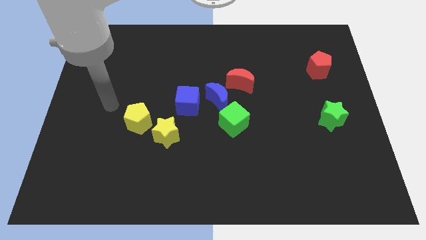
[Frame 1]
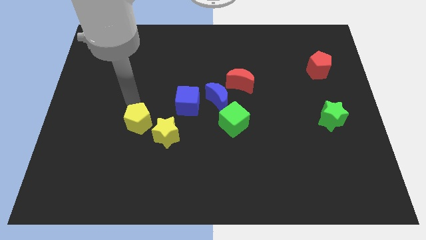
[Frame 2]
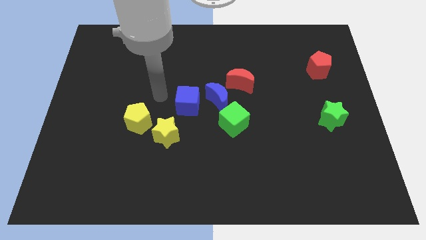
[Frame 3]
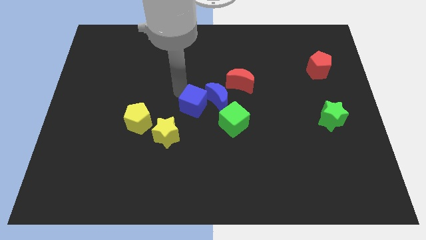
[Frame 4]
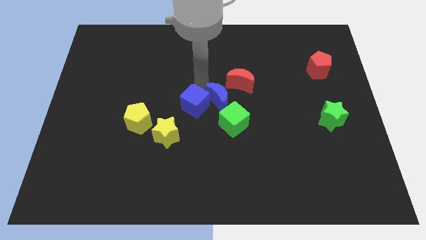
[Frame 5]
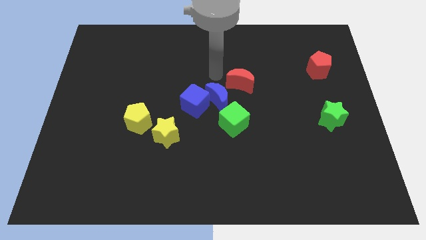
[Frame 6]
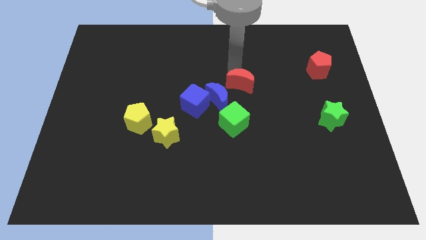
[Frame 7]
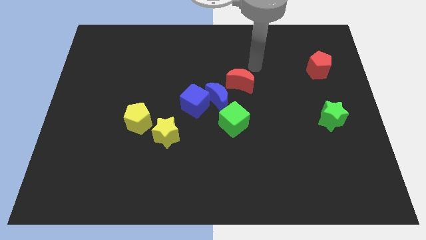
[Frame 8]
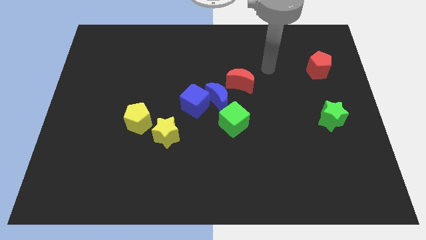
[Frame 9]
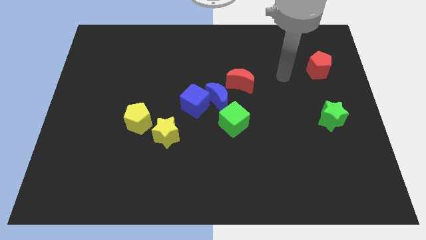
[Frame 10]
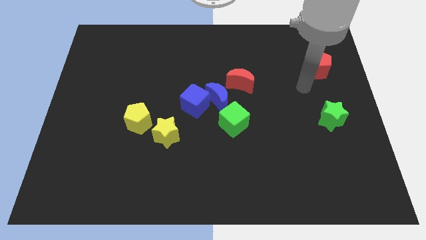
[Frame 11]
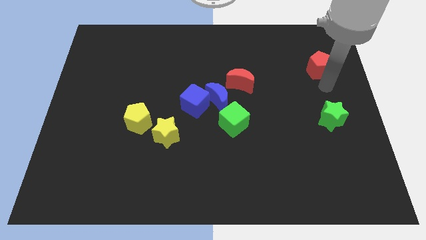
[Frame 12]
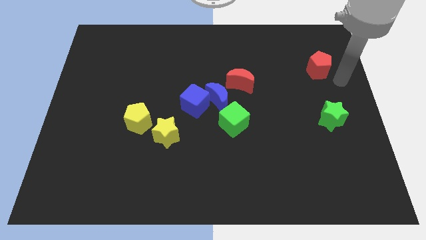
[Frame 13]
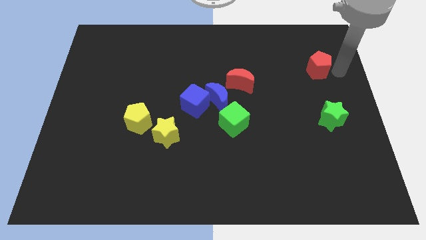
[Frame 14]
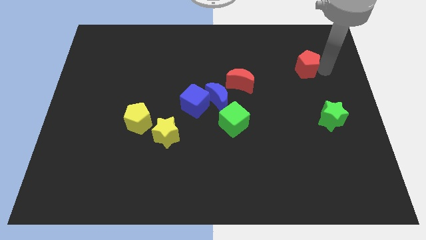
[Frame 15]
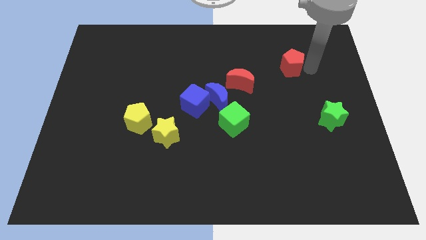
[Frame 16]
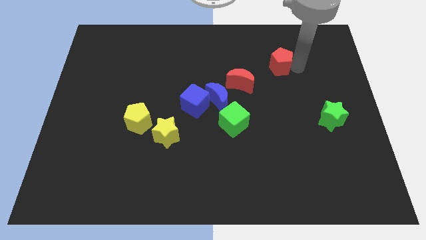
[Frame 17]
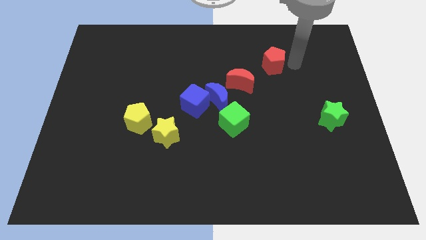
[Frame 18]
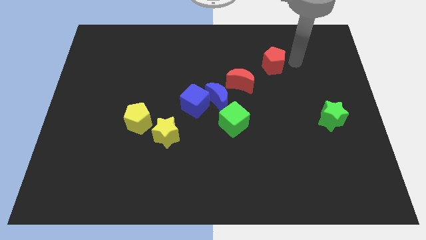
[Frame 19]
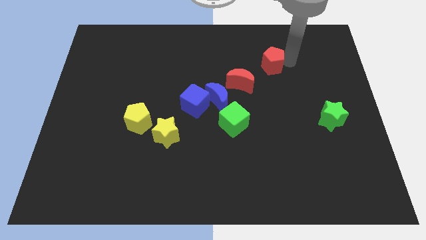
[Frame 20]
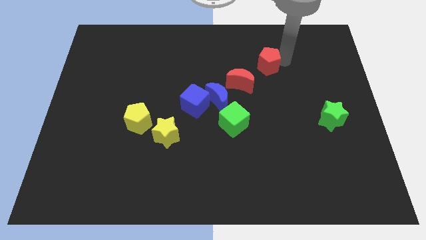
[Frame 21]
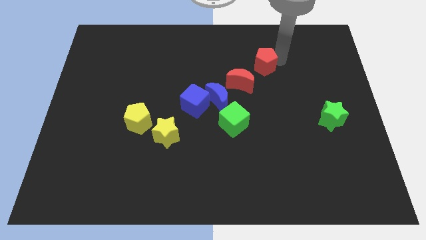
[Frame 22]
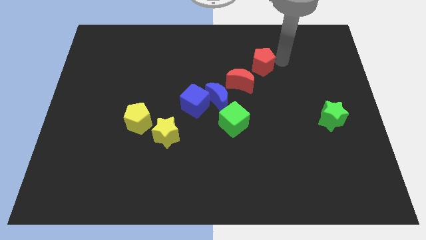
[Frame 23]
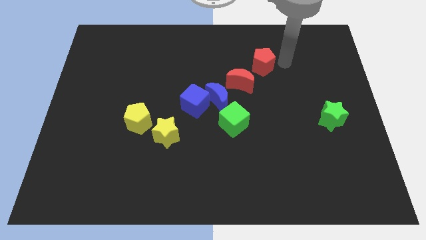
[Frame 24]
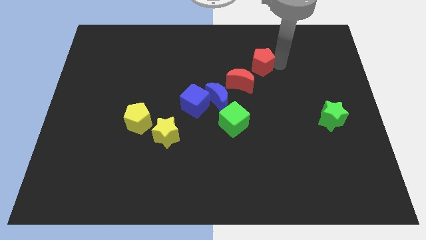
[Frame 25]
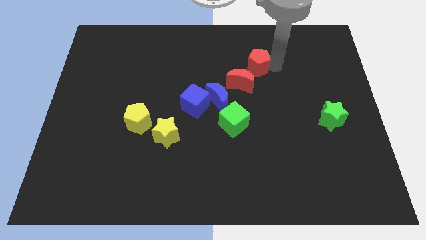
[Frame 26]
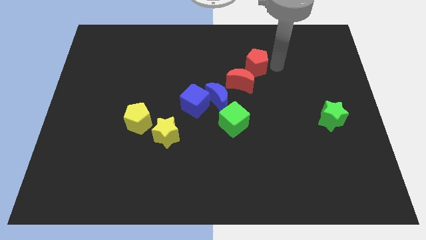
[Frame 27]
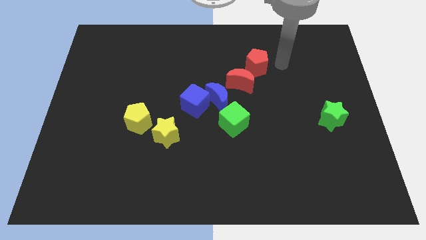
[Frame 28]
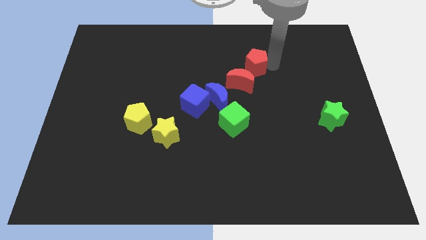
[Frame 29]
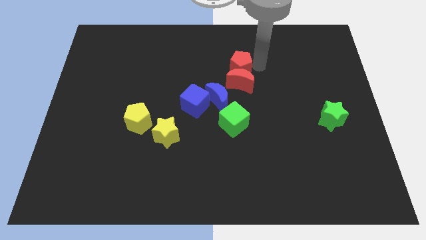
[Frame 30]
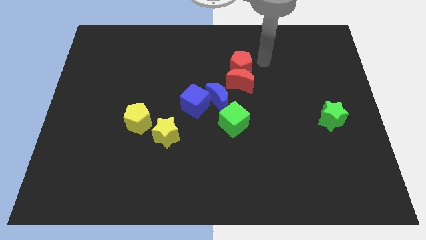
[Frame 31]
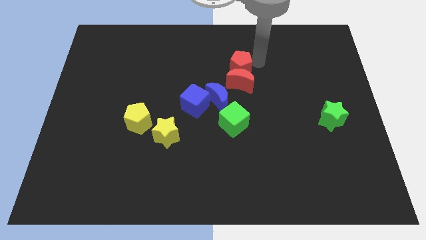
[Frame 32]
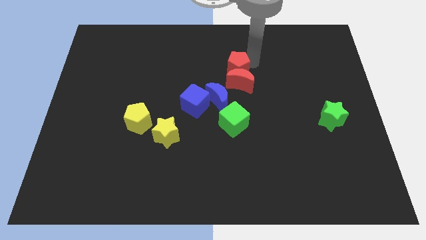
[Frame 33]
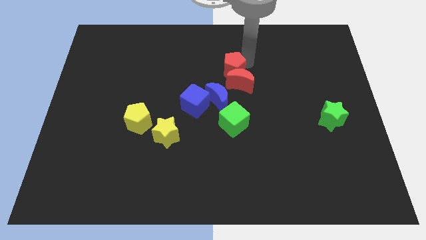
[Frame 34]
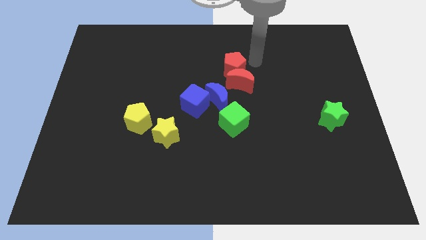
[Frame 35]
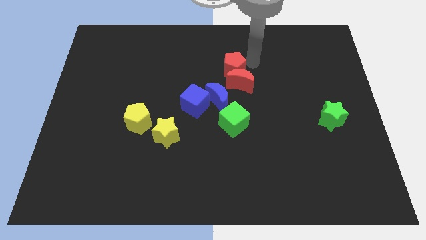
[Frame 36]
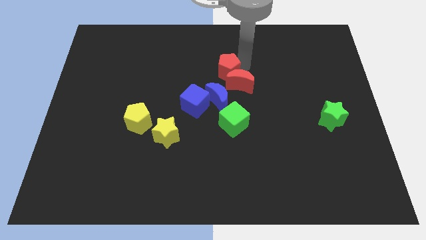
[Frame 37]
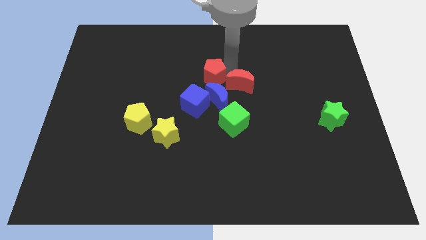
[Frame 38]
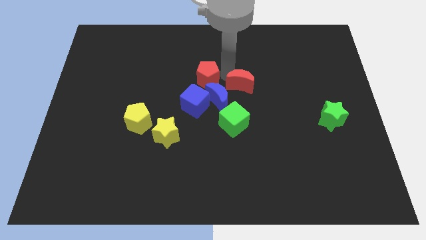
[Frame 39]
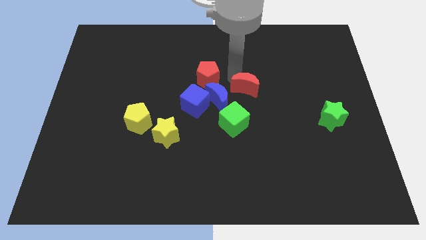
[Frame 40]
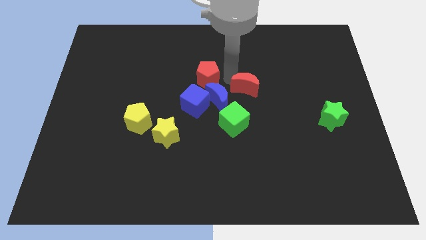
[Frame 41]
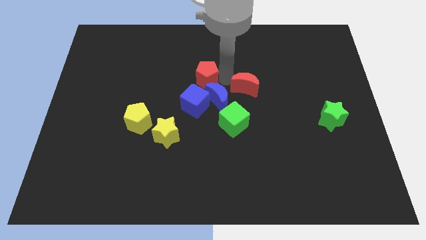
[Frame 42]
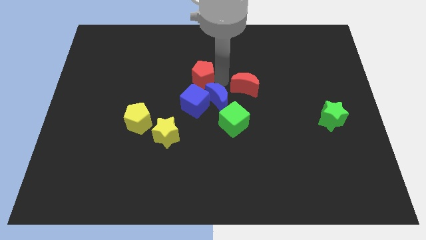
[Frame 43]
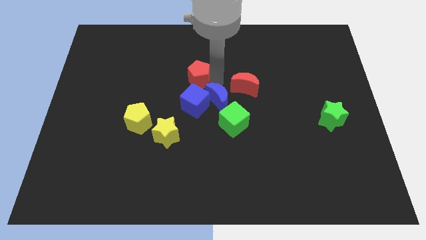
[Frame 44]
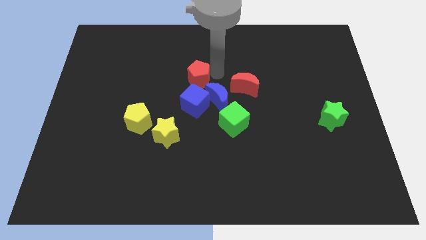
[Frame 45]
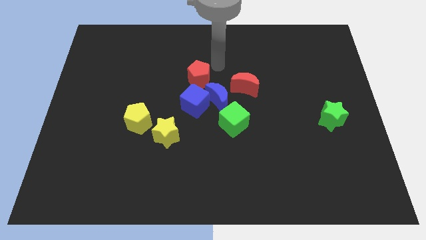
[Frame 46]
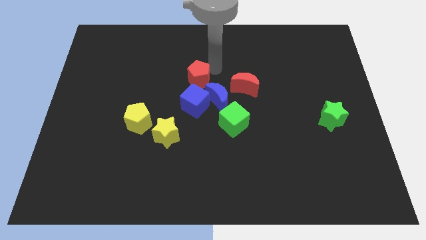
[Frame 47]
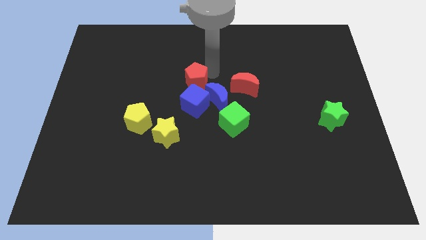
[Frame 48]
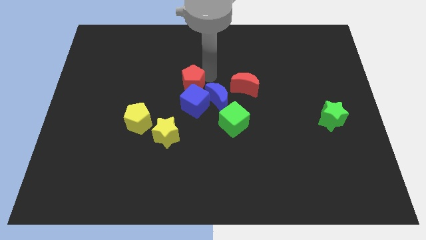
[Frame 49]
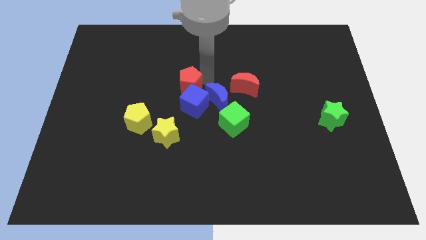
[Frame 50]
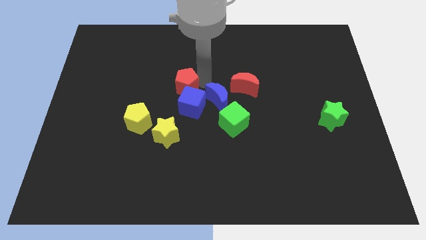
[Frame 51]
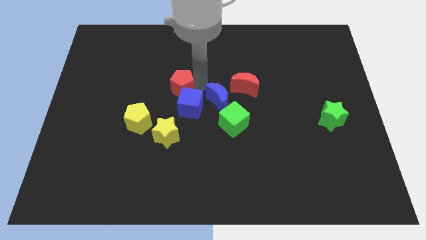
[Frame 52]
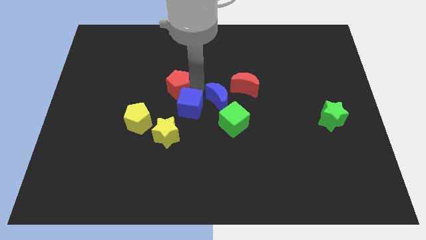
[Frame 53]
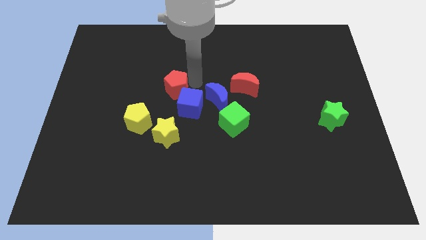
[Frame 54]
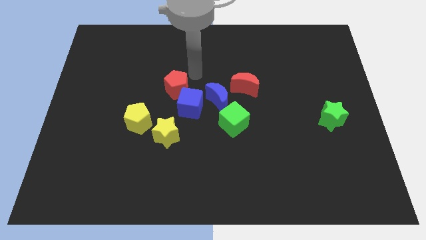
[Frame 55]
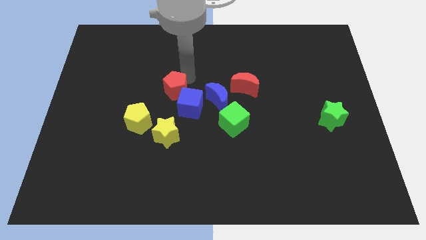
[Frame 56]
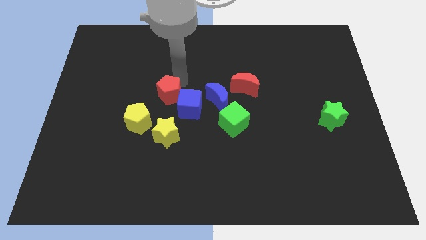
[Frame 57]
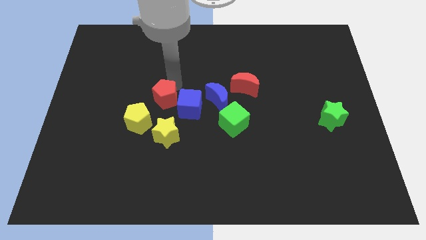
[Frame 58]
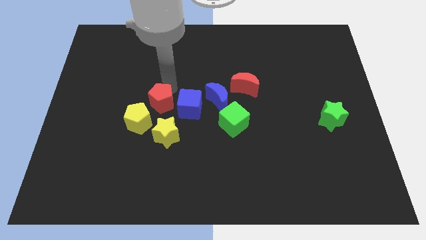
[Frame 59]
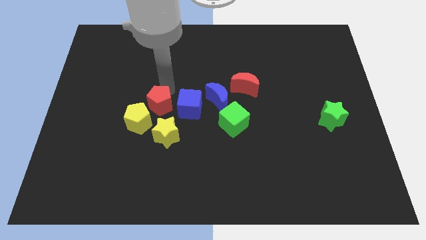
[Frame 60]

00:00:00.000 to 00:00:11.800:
move the red pentagon to the top left side of the yellow star
